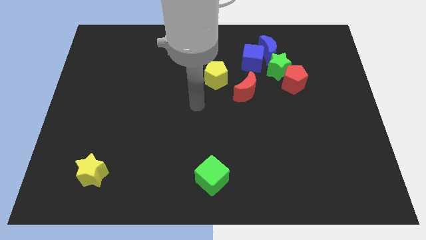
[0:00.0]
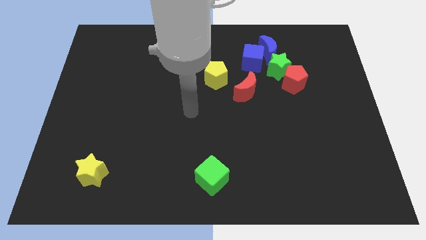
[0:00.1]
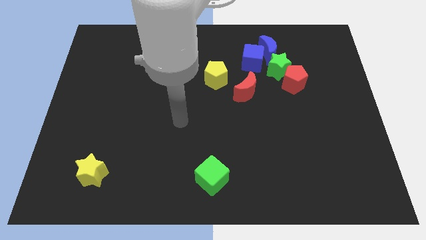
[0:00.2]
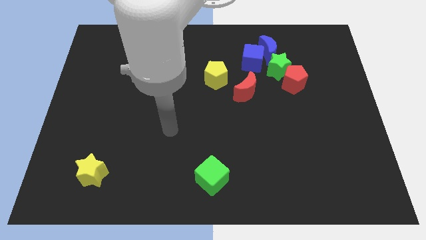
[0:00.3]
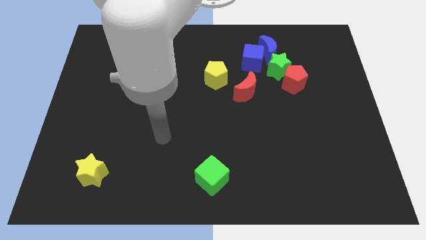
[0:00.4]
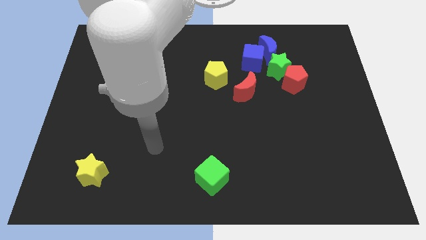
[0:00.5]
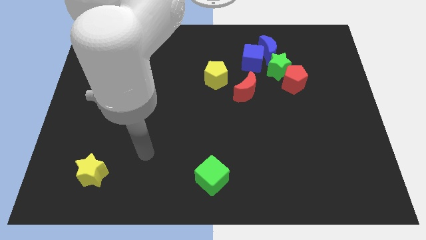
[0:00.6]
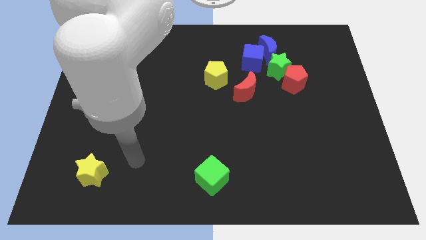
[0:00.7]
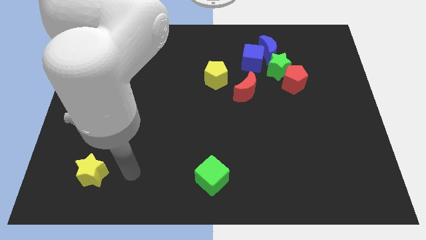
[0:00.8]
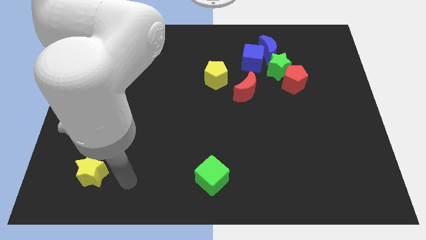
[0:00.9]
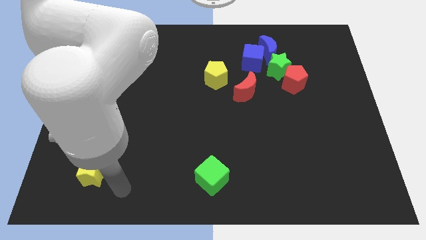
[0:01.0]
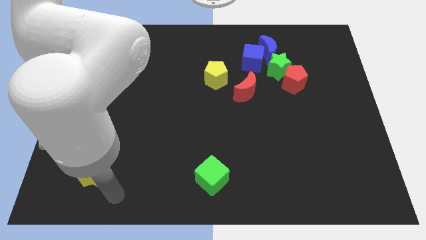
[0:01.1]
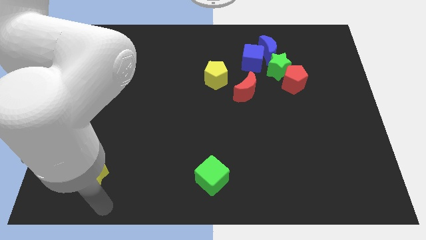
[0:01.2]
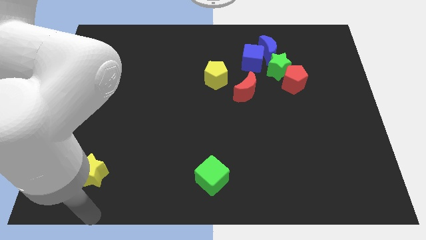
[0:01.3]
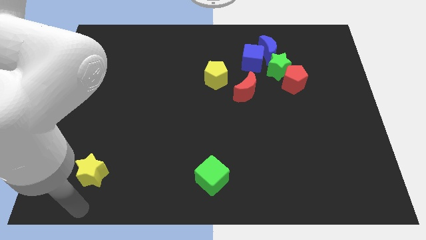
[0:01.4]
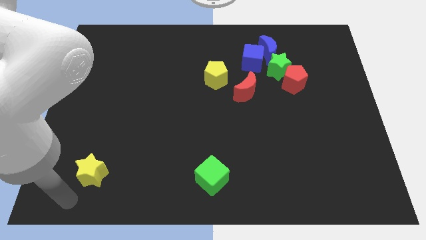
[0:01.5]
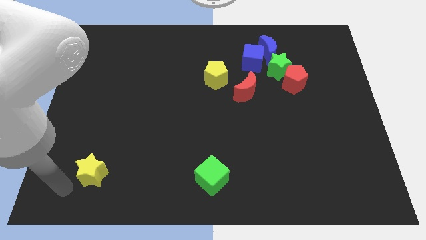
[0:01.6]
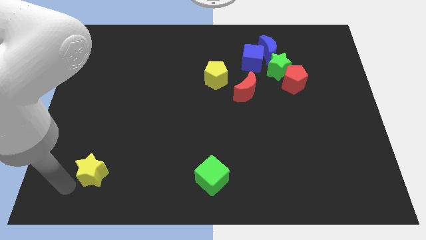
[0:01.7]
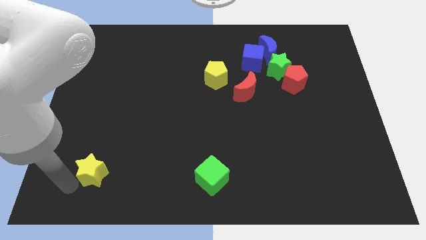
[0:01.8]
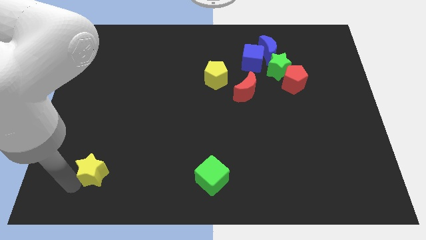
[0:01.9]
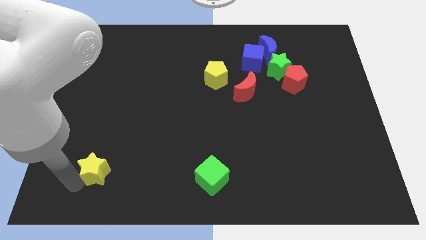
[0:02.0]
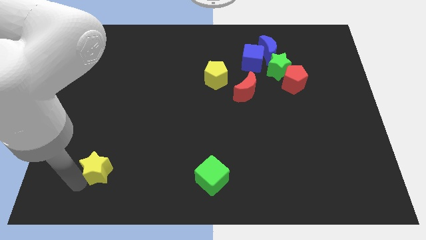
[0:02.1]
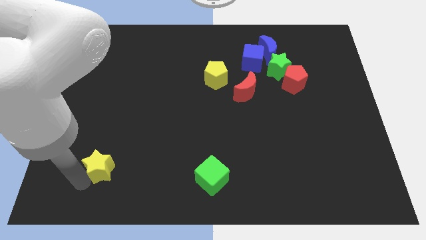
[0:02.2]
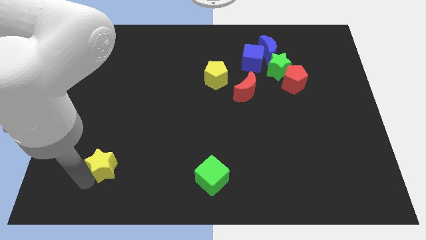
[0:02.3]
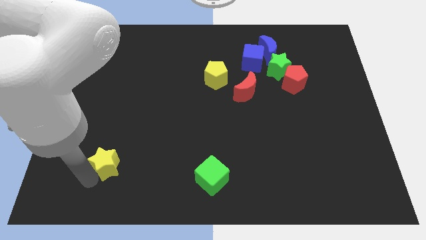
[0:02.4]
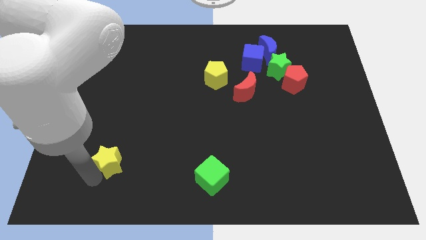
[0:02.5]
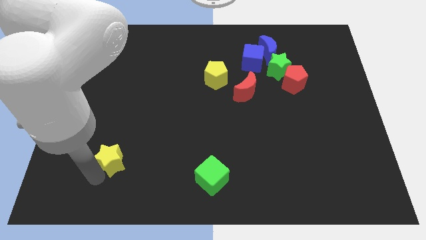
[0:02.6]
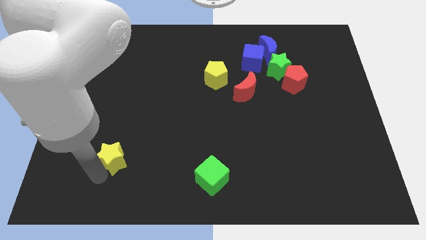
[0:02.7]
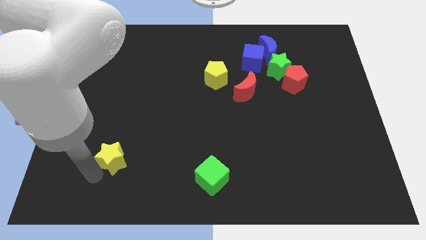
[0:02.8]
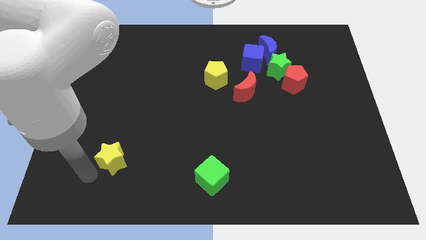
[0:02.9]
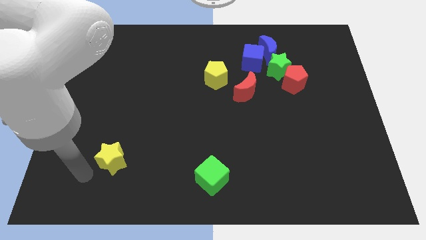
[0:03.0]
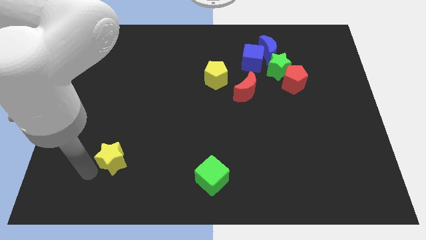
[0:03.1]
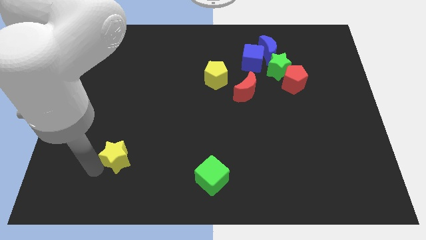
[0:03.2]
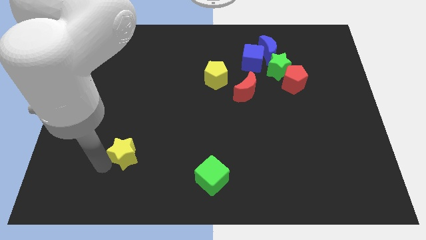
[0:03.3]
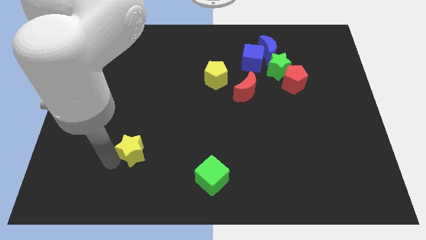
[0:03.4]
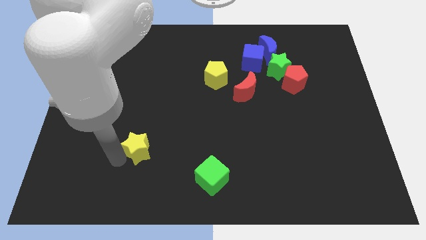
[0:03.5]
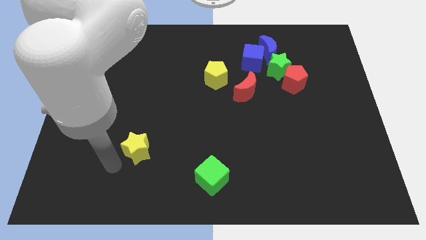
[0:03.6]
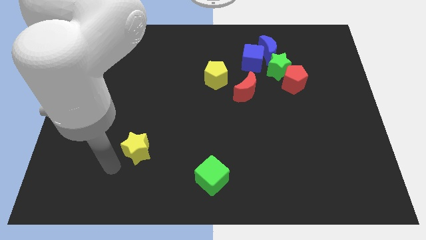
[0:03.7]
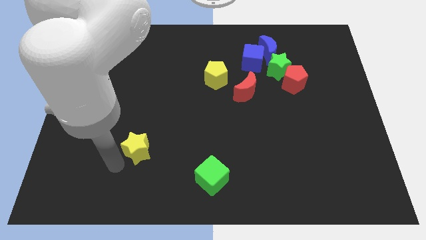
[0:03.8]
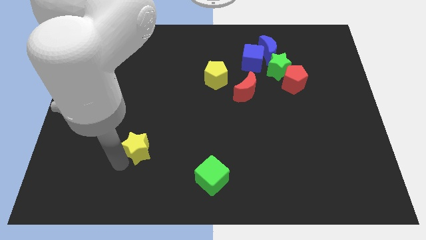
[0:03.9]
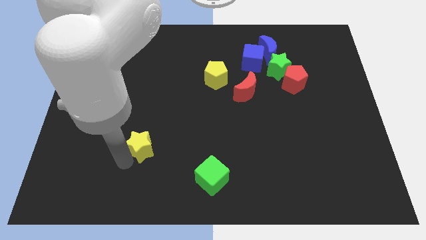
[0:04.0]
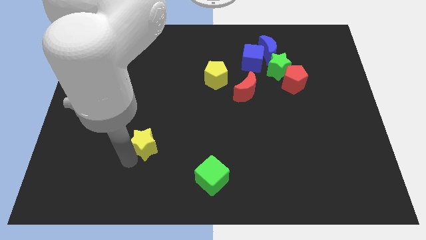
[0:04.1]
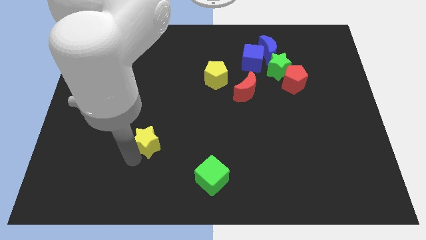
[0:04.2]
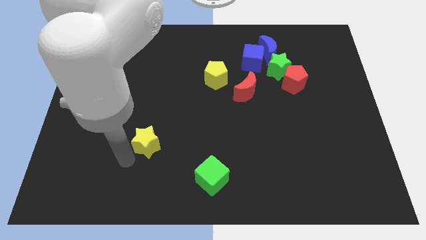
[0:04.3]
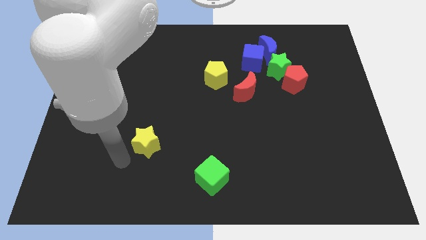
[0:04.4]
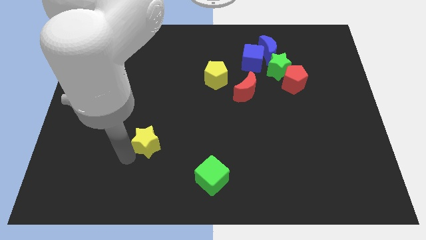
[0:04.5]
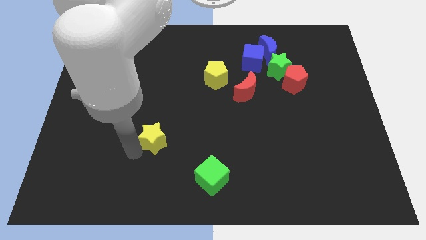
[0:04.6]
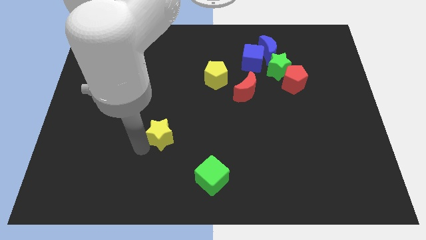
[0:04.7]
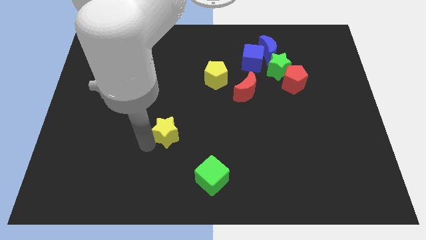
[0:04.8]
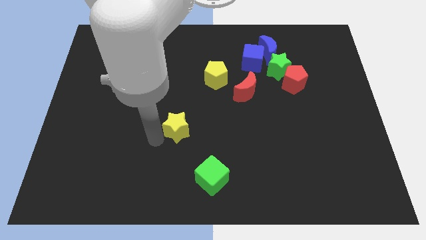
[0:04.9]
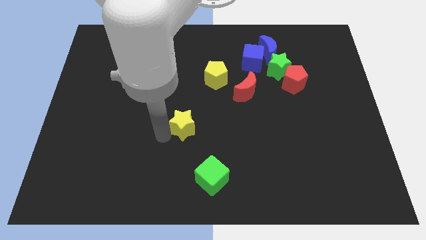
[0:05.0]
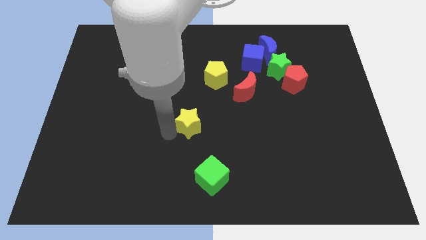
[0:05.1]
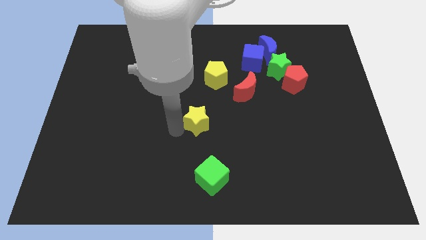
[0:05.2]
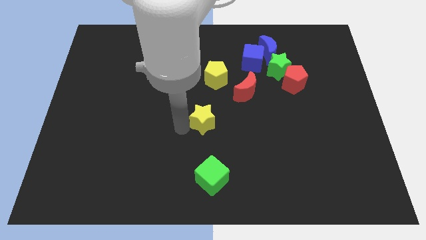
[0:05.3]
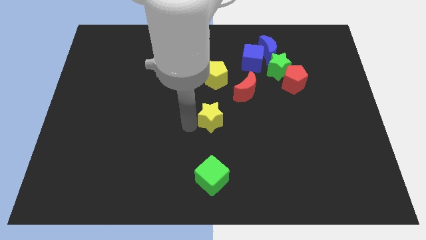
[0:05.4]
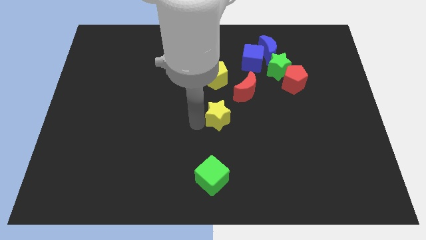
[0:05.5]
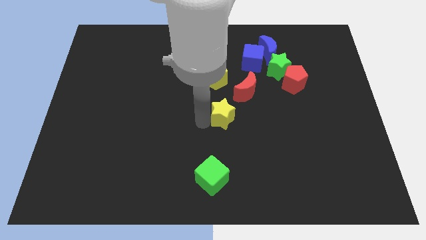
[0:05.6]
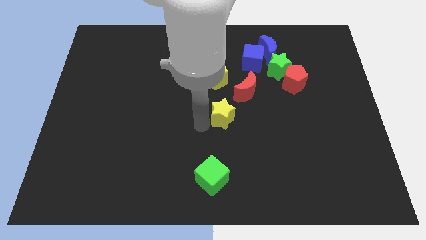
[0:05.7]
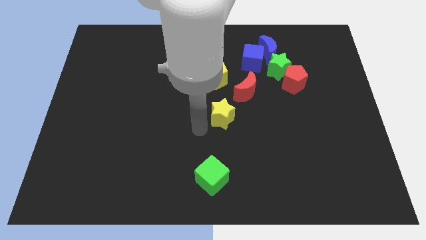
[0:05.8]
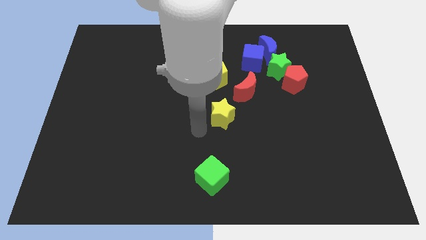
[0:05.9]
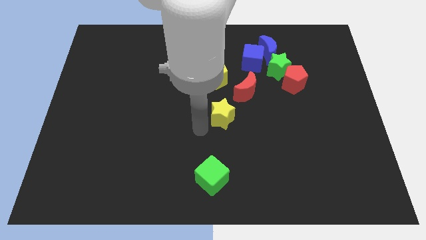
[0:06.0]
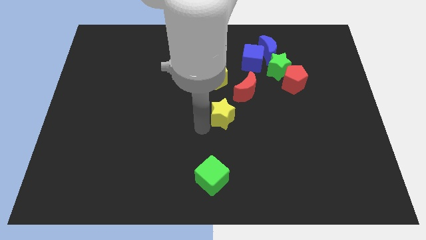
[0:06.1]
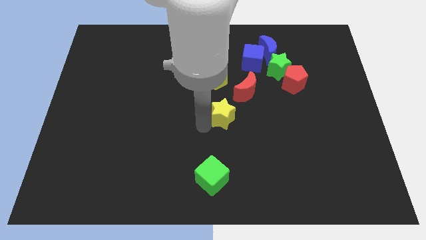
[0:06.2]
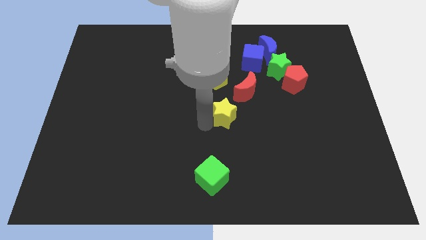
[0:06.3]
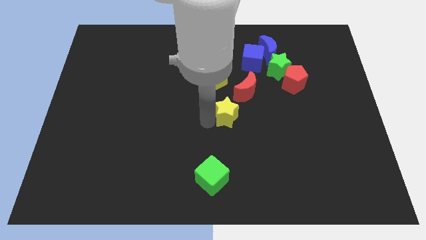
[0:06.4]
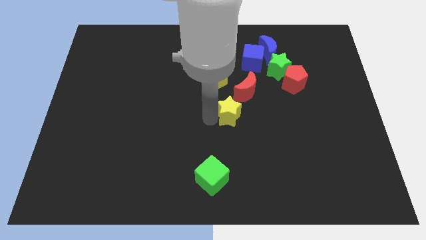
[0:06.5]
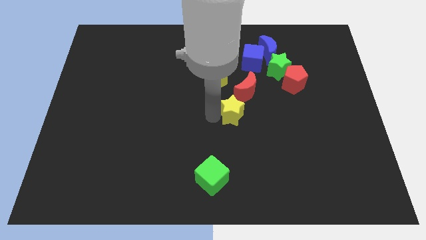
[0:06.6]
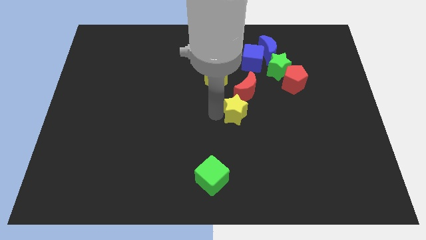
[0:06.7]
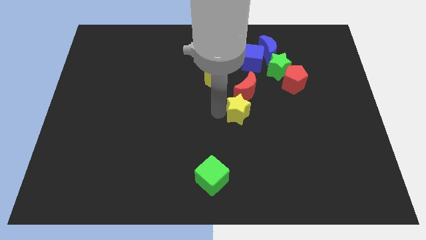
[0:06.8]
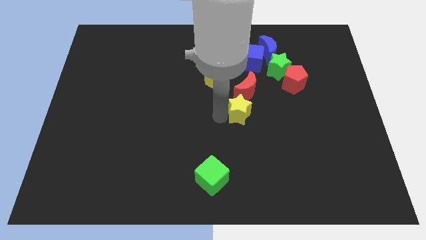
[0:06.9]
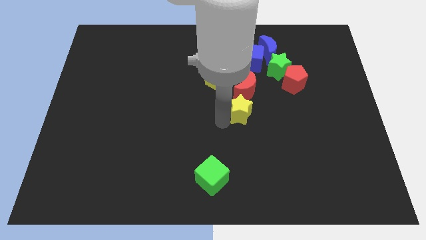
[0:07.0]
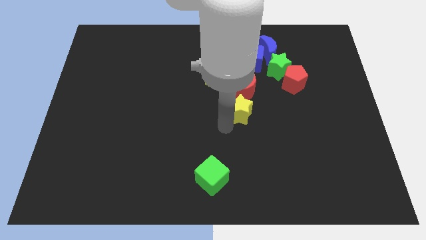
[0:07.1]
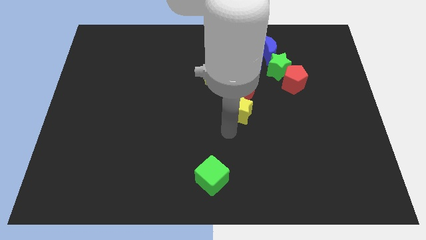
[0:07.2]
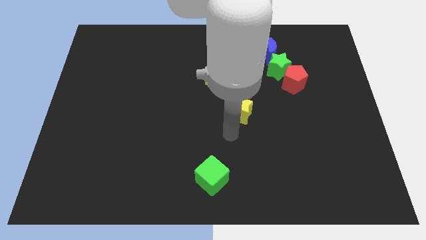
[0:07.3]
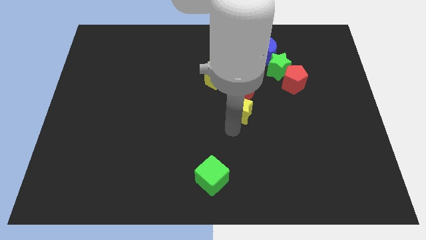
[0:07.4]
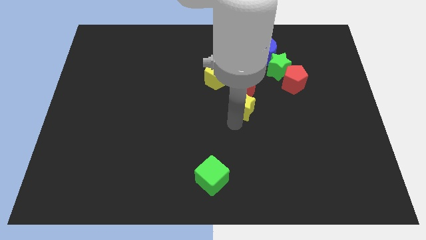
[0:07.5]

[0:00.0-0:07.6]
push the yellow star next to the red moon
